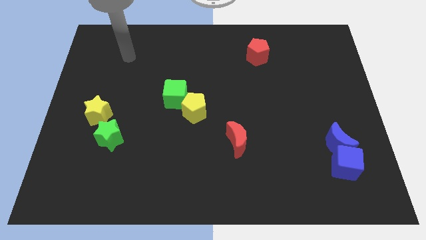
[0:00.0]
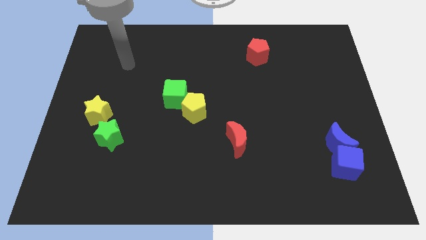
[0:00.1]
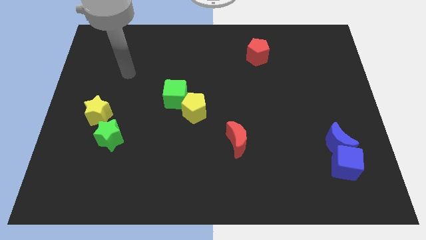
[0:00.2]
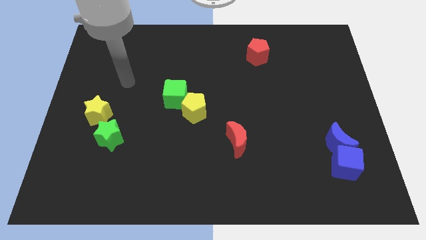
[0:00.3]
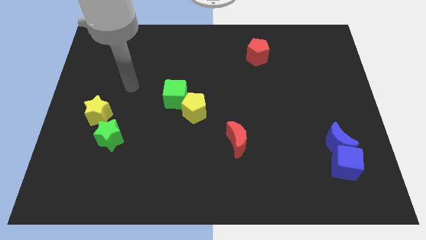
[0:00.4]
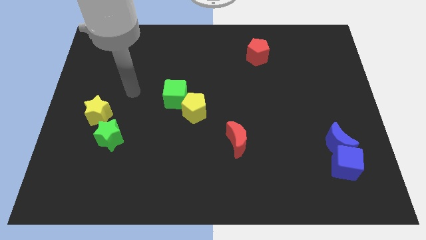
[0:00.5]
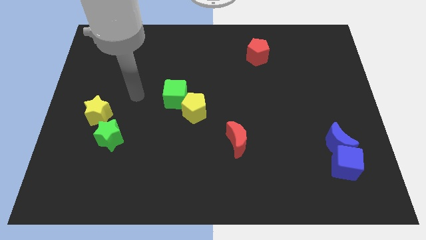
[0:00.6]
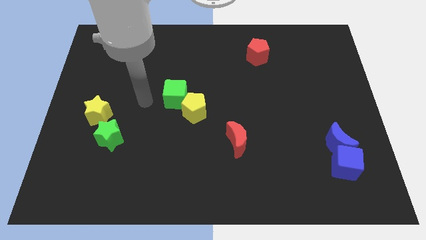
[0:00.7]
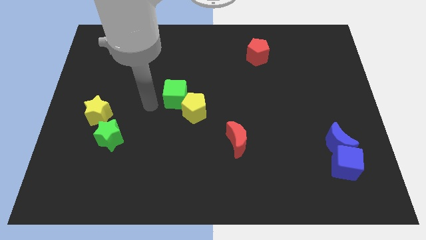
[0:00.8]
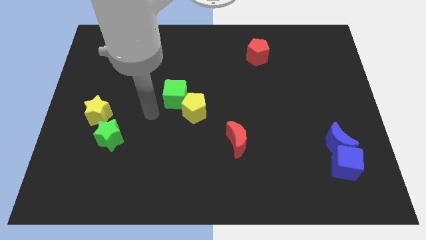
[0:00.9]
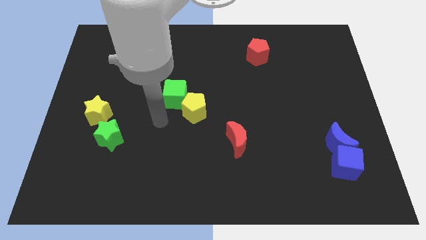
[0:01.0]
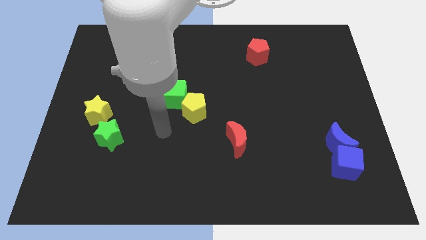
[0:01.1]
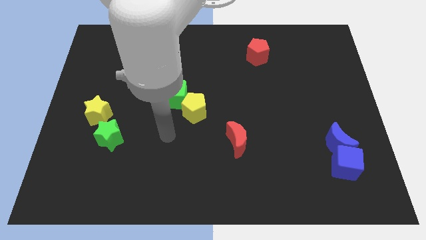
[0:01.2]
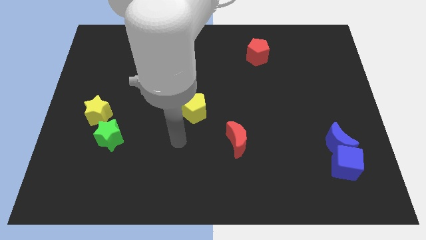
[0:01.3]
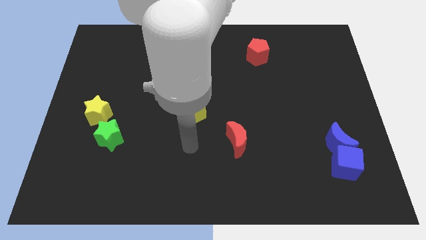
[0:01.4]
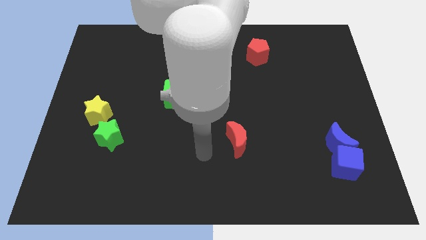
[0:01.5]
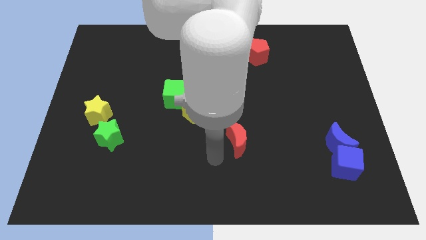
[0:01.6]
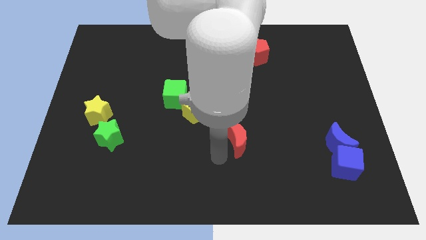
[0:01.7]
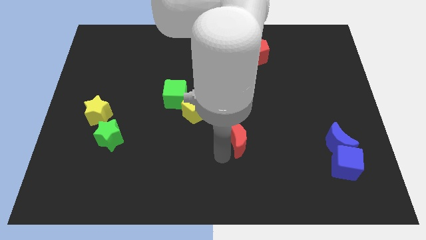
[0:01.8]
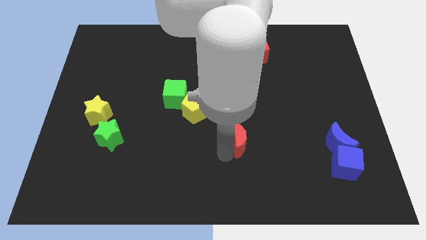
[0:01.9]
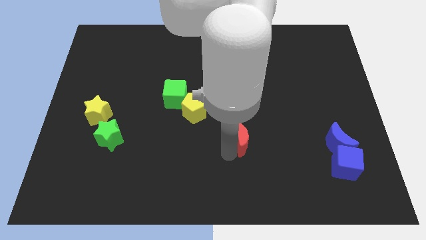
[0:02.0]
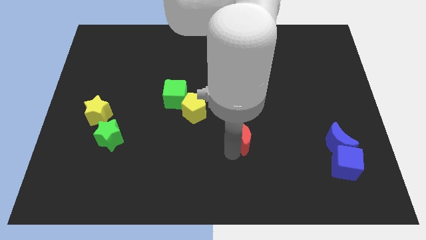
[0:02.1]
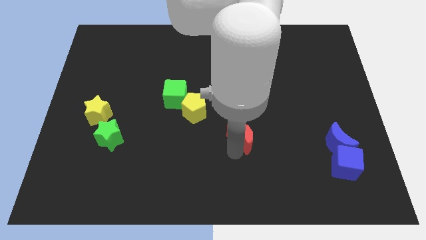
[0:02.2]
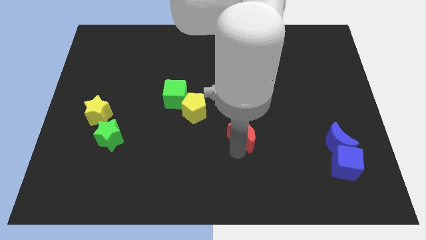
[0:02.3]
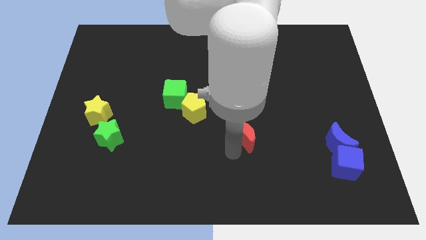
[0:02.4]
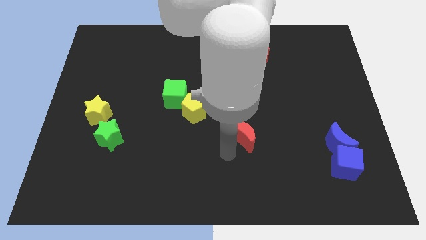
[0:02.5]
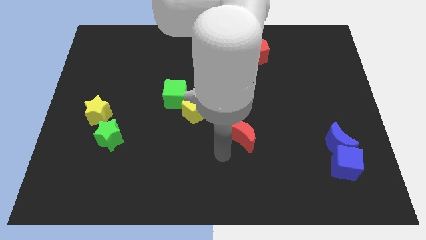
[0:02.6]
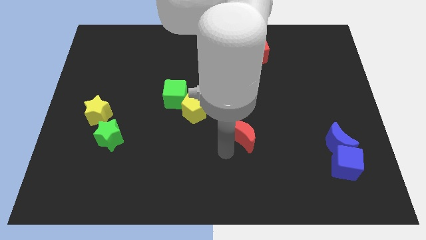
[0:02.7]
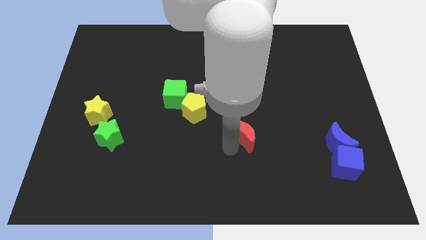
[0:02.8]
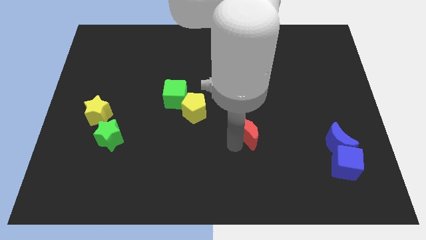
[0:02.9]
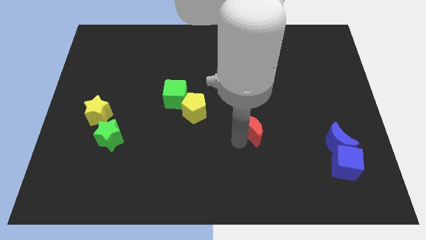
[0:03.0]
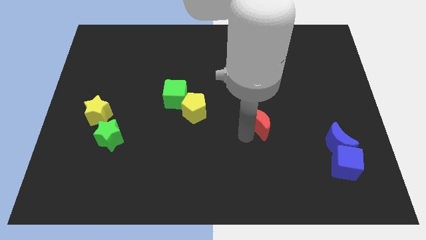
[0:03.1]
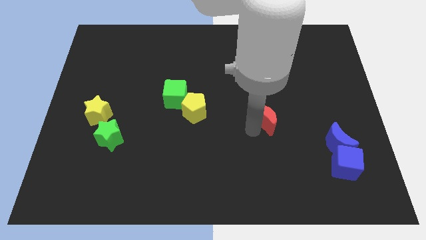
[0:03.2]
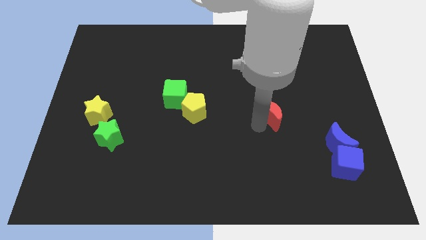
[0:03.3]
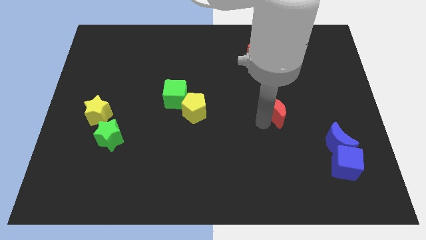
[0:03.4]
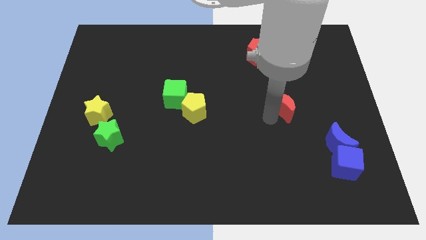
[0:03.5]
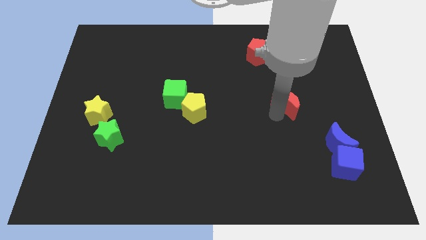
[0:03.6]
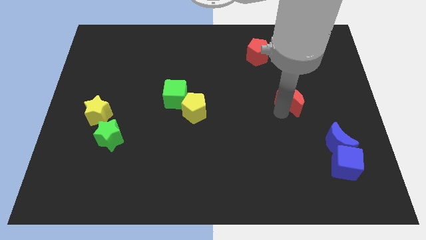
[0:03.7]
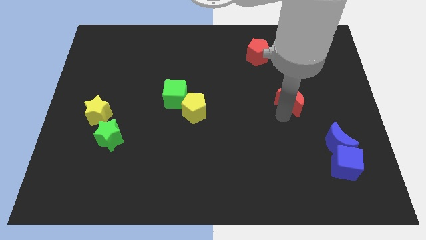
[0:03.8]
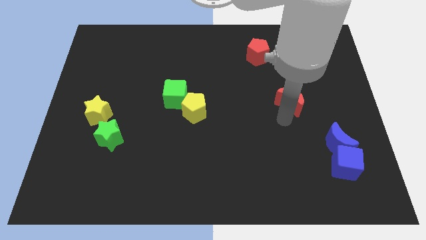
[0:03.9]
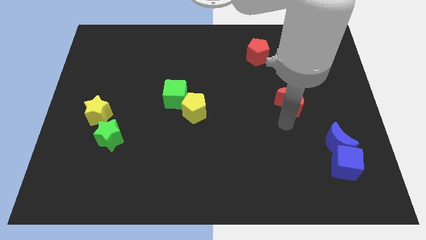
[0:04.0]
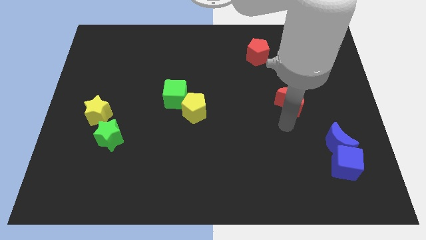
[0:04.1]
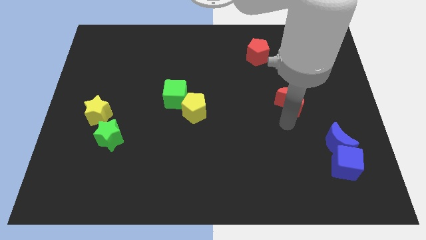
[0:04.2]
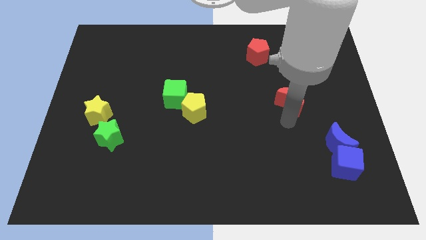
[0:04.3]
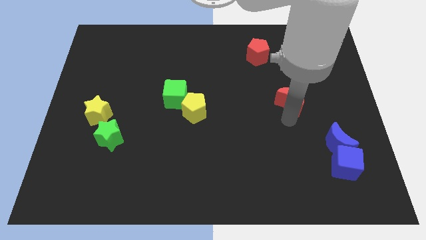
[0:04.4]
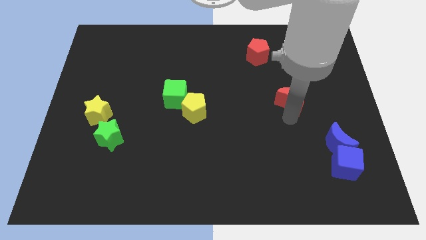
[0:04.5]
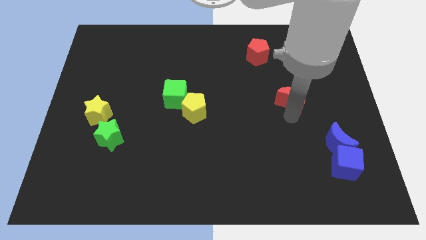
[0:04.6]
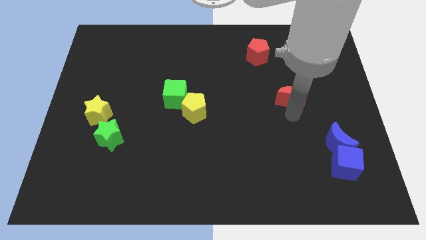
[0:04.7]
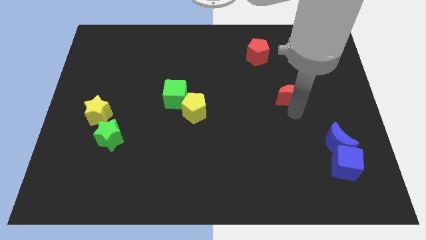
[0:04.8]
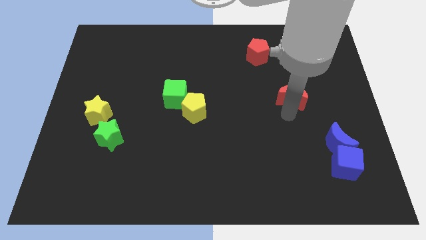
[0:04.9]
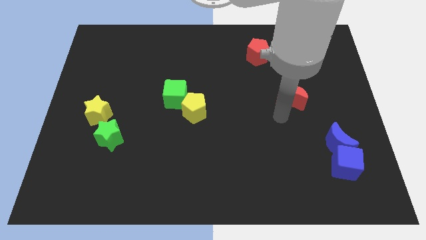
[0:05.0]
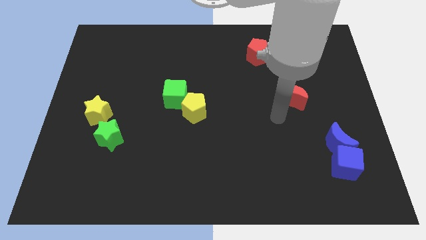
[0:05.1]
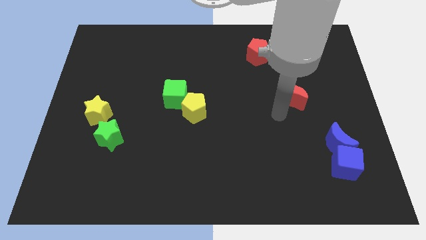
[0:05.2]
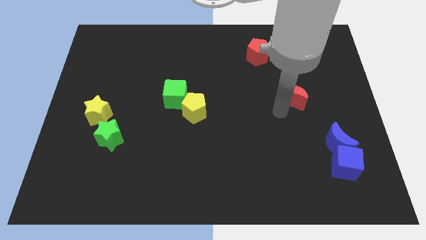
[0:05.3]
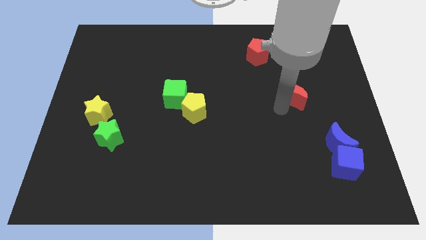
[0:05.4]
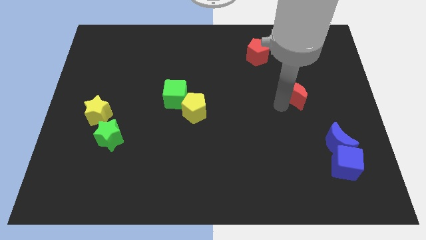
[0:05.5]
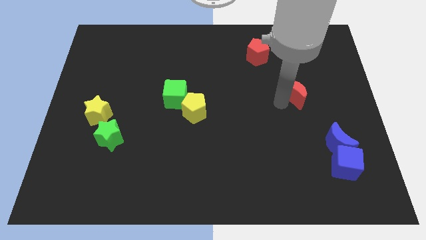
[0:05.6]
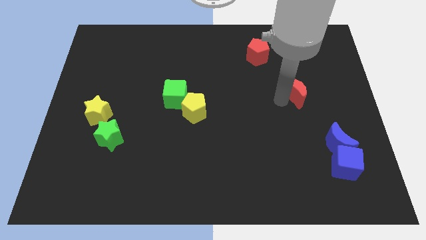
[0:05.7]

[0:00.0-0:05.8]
push the red moon diagonally upwards and to the right

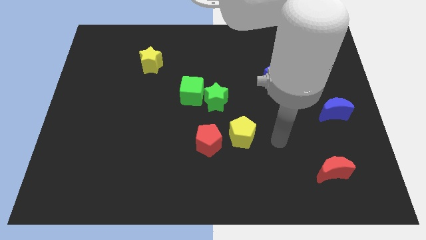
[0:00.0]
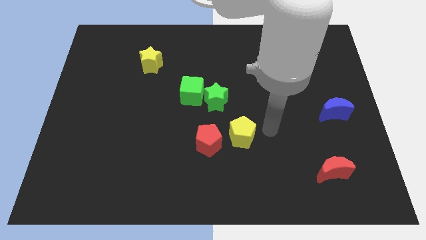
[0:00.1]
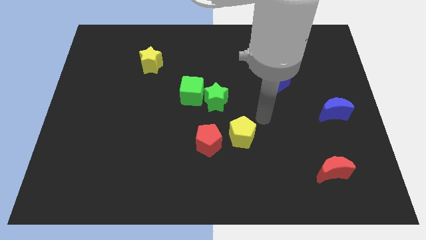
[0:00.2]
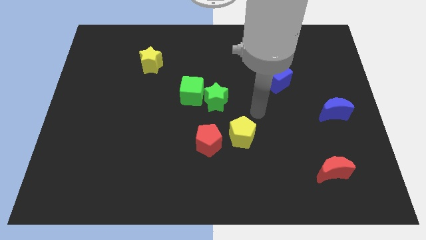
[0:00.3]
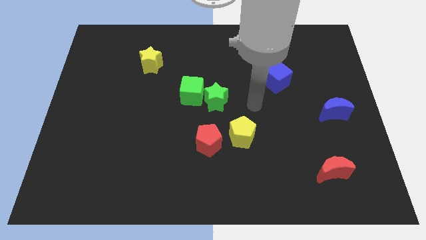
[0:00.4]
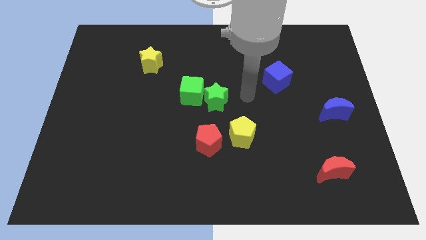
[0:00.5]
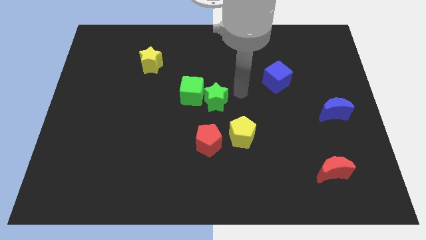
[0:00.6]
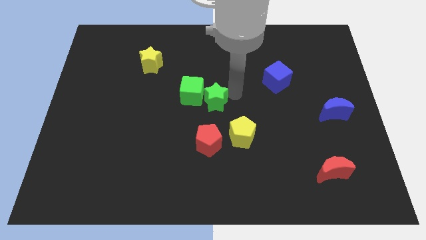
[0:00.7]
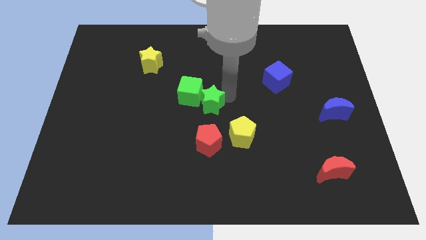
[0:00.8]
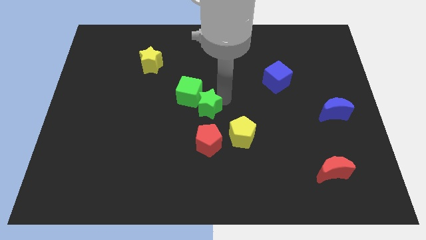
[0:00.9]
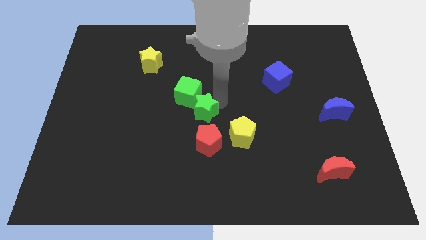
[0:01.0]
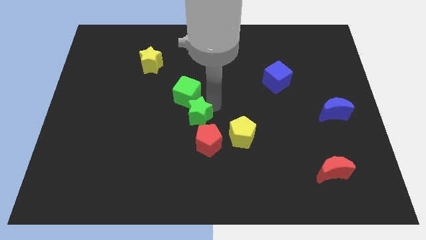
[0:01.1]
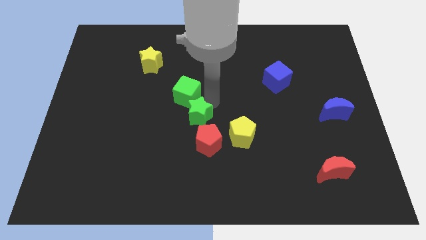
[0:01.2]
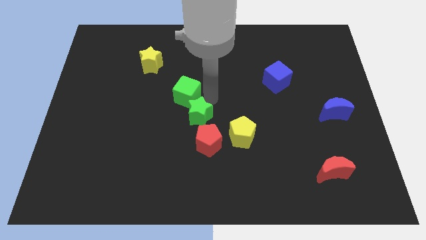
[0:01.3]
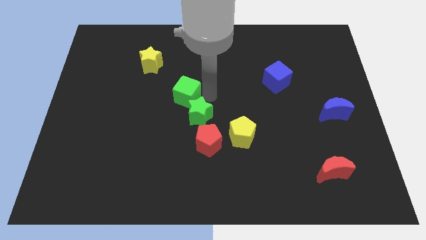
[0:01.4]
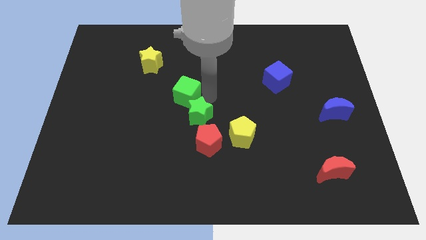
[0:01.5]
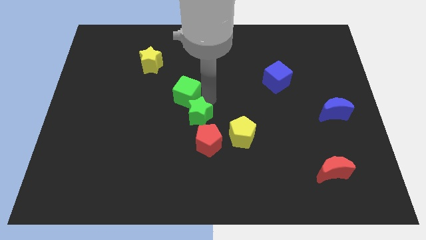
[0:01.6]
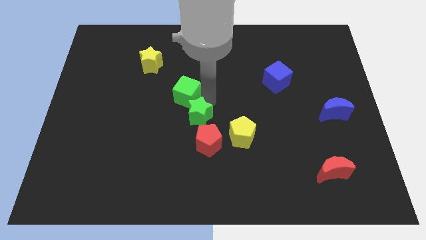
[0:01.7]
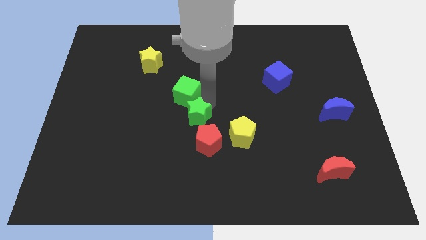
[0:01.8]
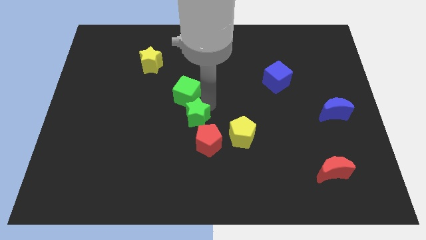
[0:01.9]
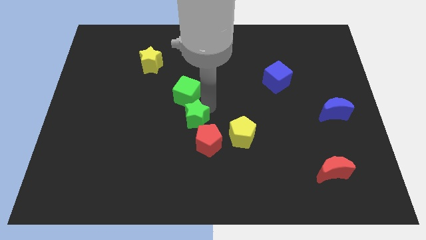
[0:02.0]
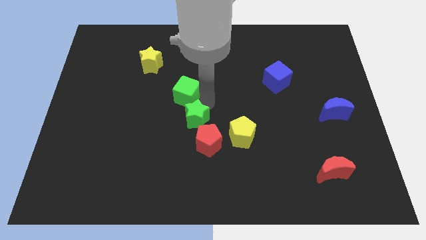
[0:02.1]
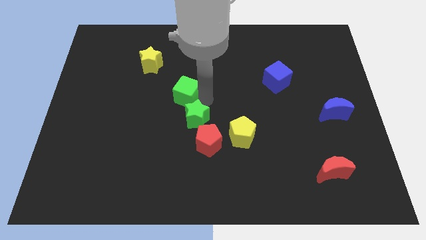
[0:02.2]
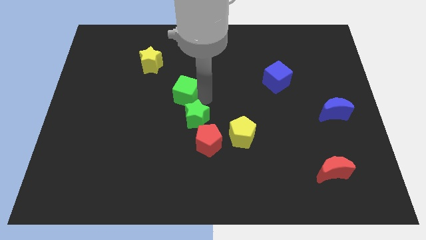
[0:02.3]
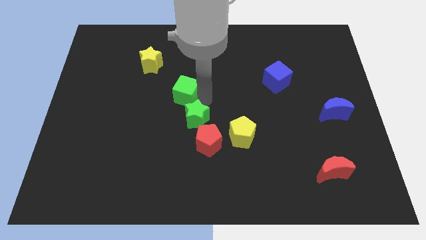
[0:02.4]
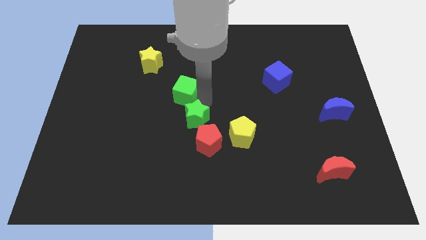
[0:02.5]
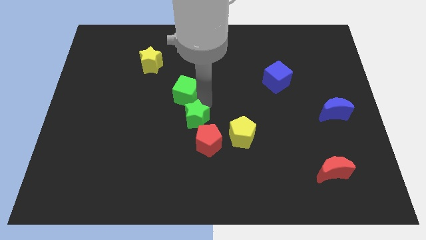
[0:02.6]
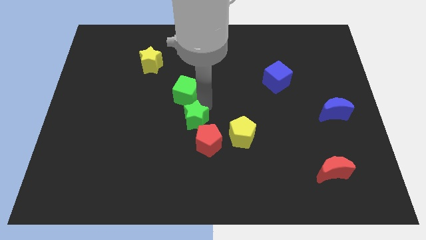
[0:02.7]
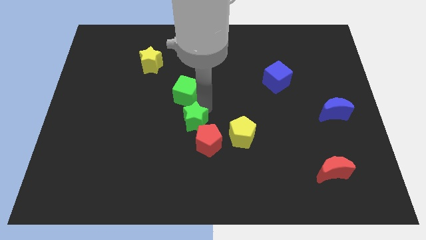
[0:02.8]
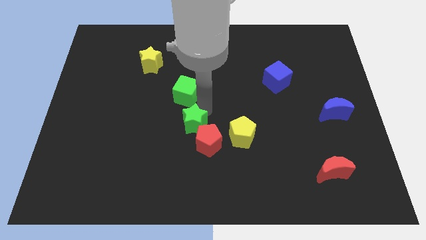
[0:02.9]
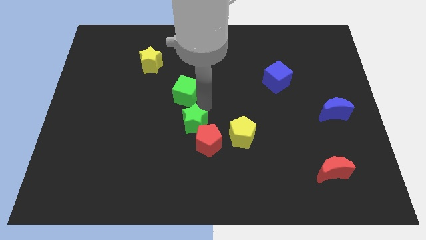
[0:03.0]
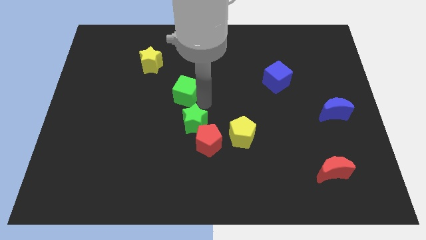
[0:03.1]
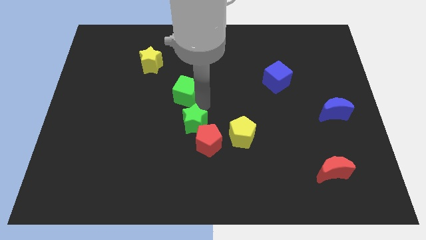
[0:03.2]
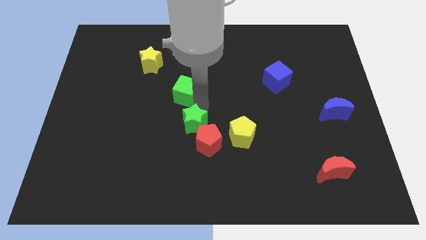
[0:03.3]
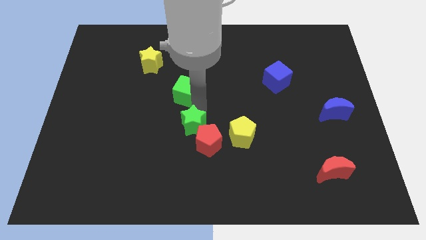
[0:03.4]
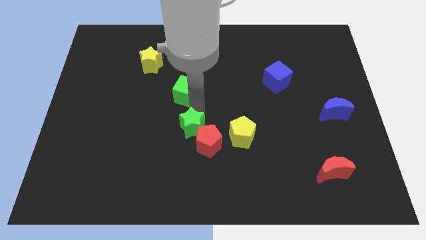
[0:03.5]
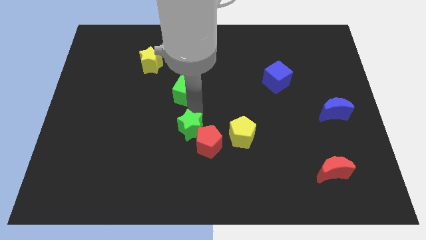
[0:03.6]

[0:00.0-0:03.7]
push the green star a bit down
